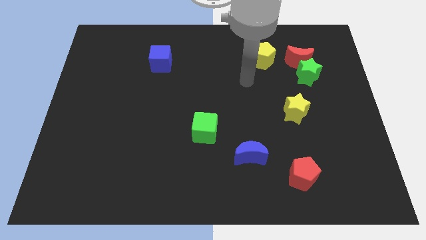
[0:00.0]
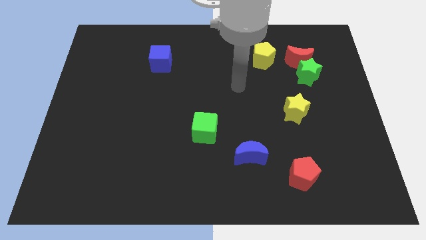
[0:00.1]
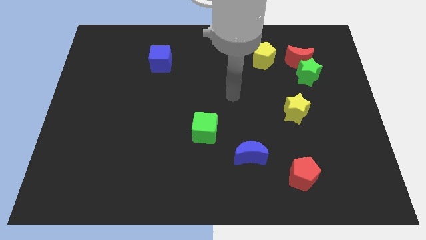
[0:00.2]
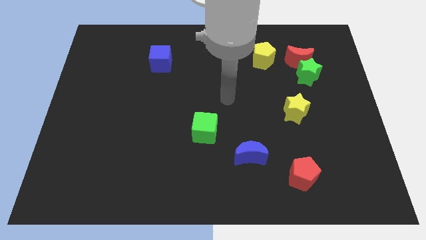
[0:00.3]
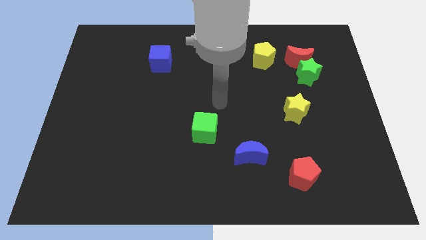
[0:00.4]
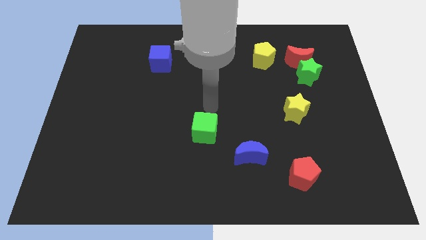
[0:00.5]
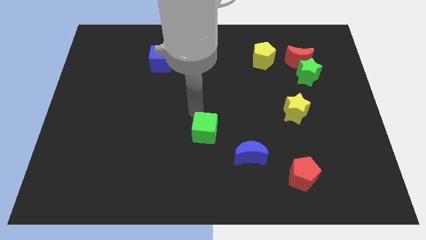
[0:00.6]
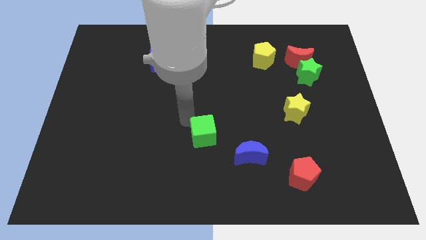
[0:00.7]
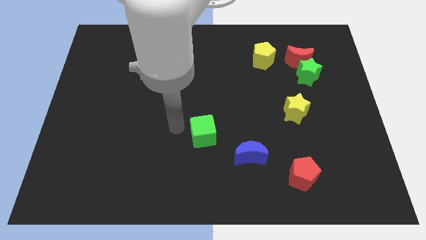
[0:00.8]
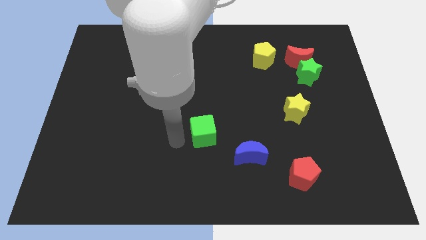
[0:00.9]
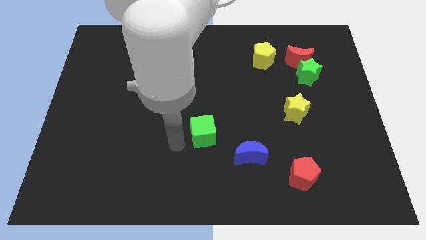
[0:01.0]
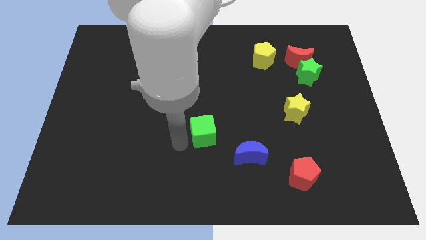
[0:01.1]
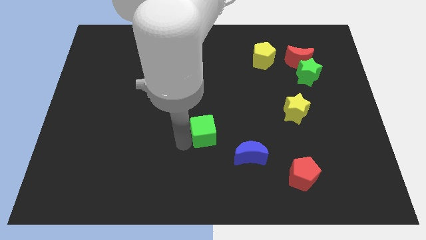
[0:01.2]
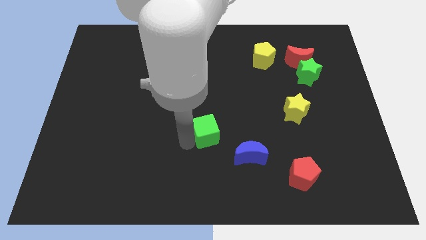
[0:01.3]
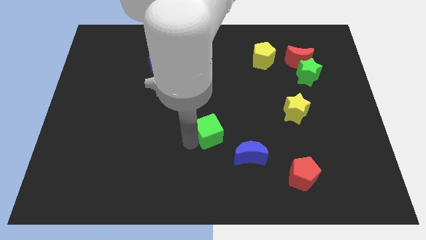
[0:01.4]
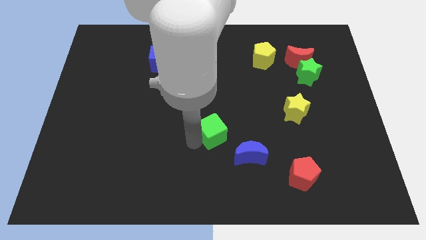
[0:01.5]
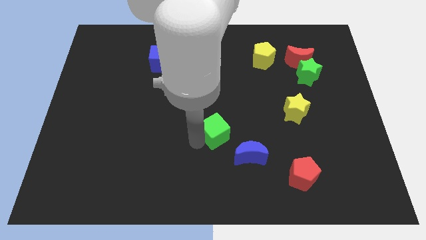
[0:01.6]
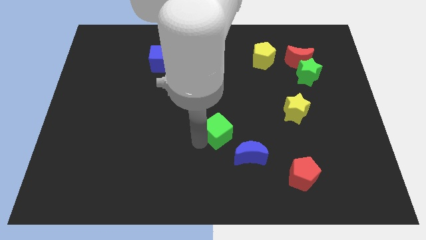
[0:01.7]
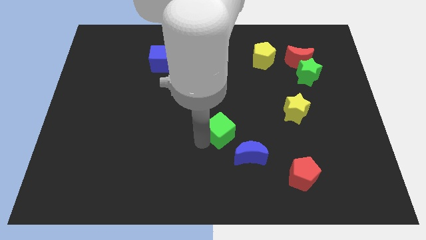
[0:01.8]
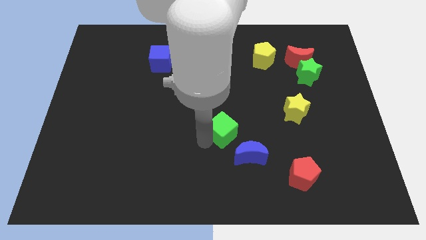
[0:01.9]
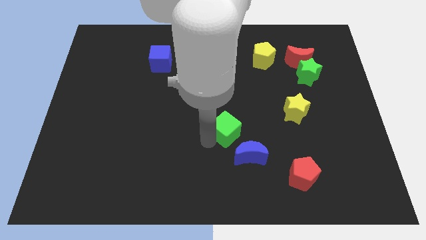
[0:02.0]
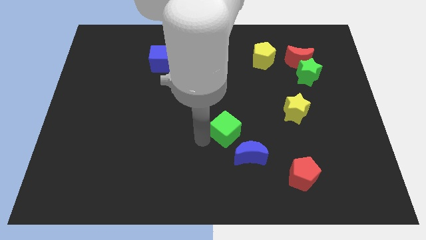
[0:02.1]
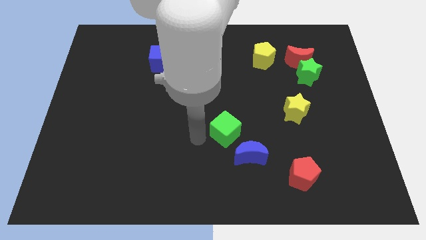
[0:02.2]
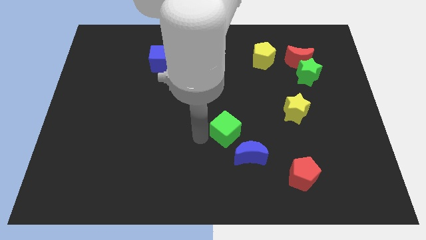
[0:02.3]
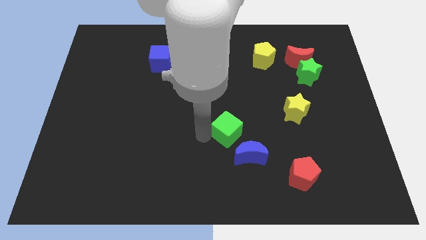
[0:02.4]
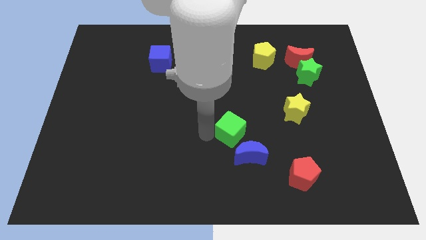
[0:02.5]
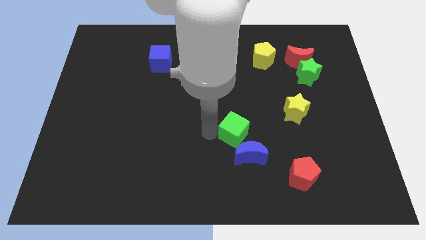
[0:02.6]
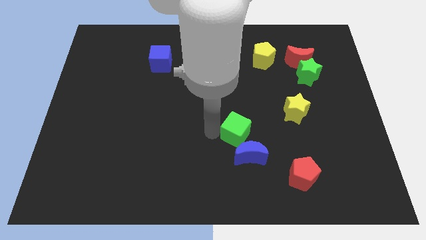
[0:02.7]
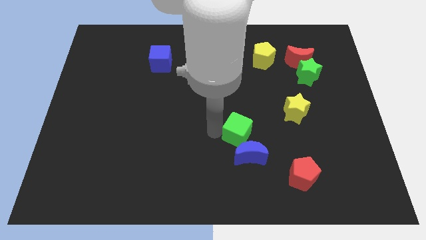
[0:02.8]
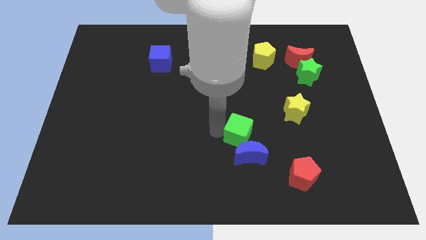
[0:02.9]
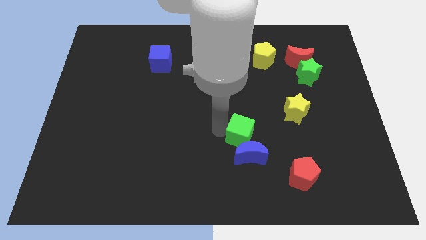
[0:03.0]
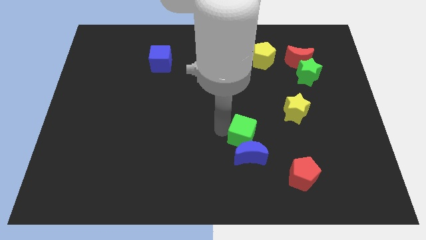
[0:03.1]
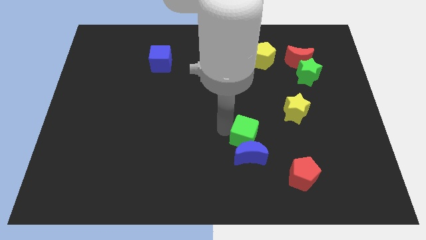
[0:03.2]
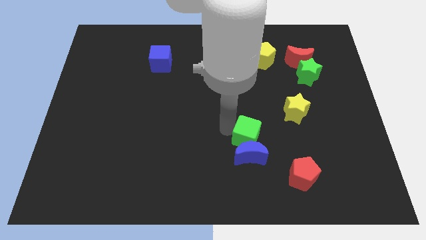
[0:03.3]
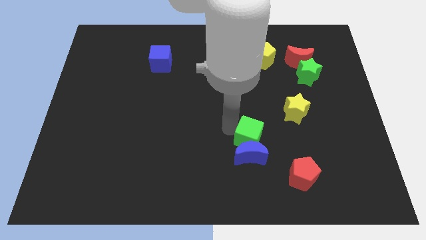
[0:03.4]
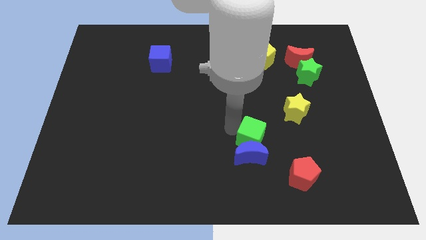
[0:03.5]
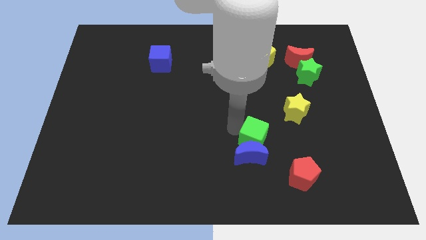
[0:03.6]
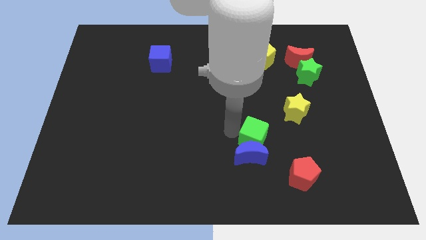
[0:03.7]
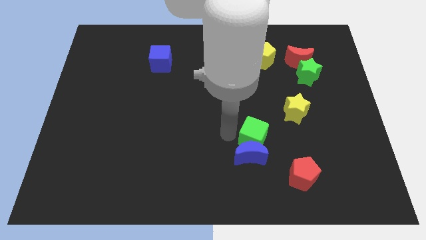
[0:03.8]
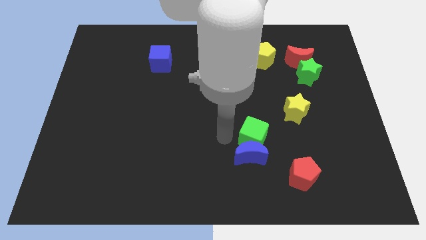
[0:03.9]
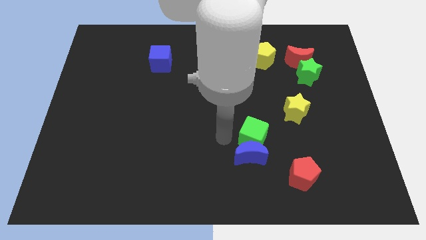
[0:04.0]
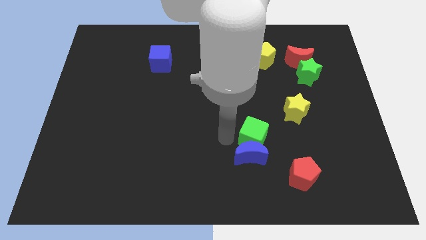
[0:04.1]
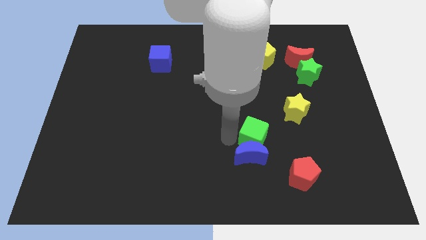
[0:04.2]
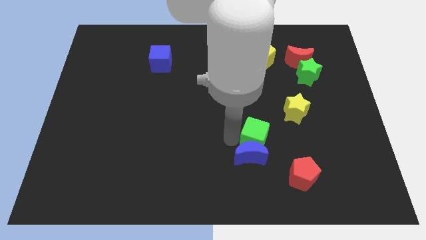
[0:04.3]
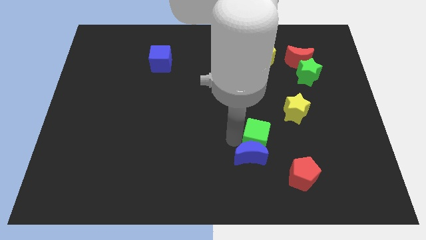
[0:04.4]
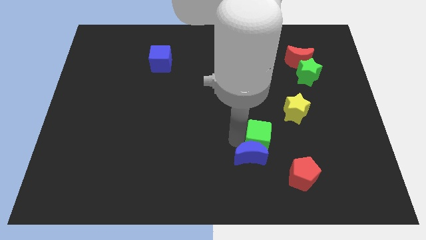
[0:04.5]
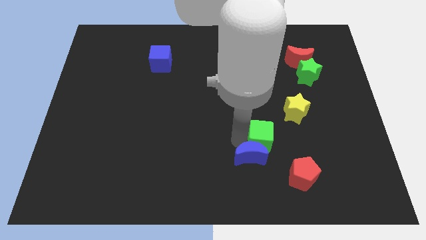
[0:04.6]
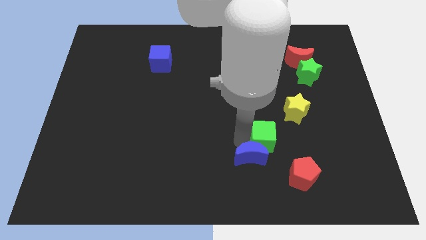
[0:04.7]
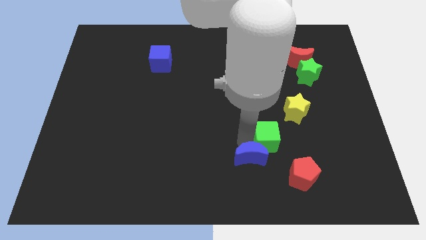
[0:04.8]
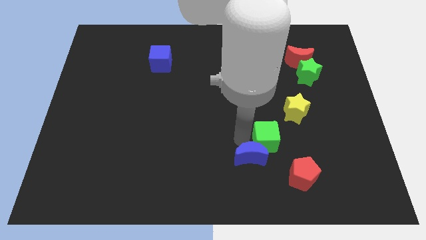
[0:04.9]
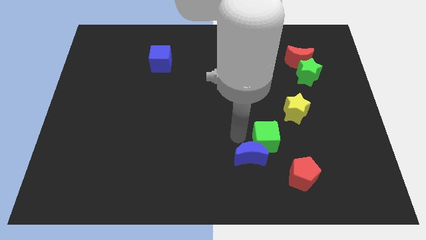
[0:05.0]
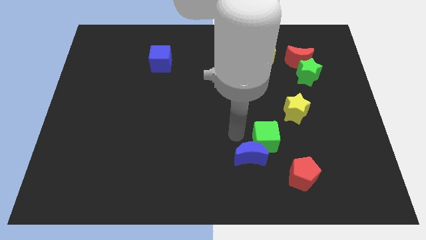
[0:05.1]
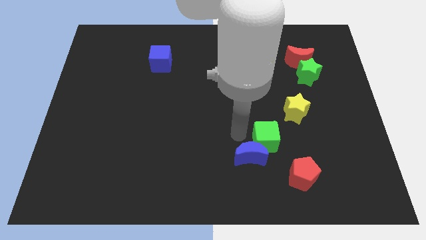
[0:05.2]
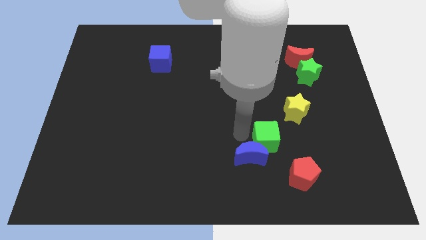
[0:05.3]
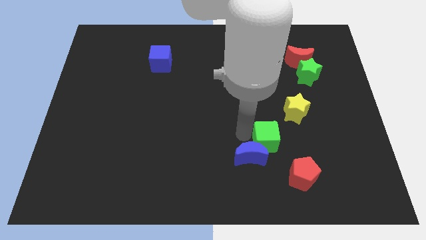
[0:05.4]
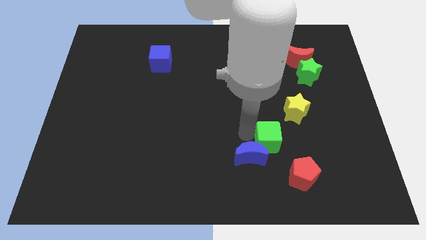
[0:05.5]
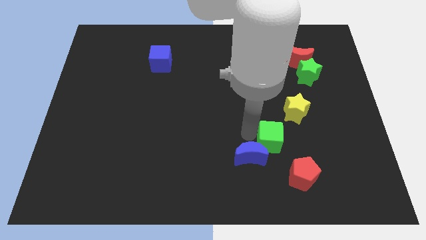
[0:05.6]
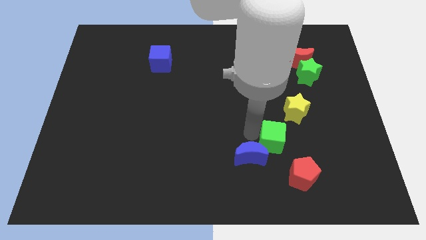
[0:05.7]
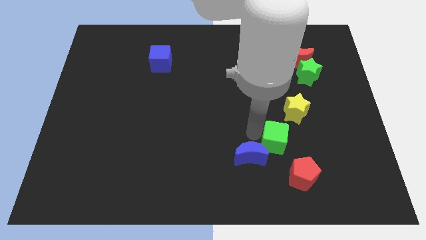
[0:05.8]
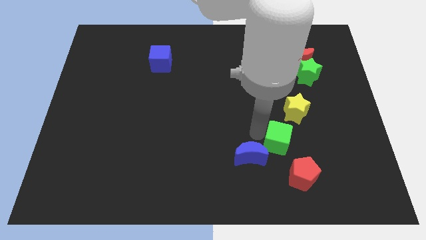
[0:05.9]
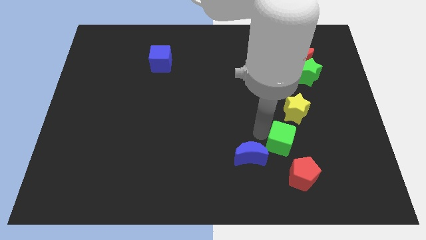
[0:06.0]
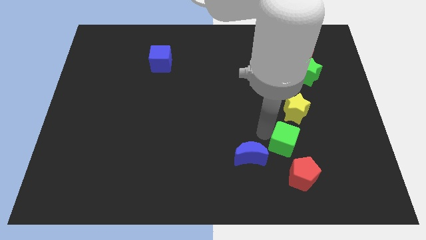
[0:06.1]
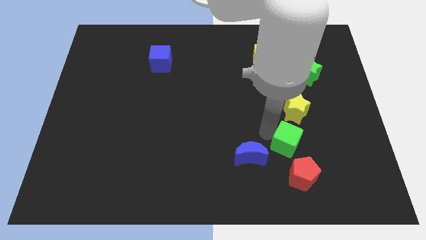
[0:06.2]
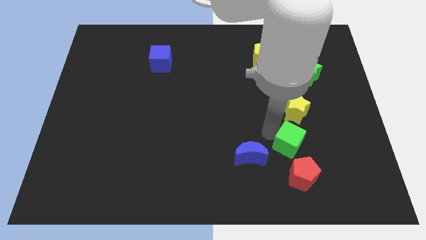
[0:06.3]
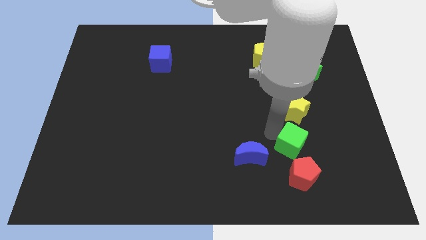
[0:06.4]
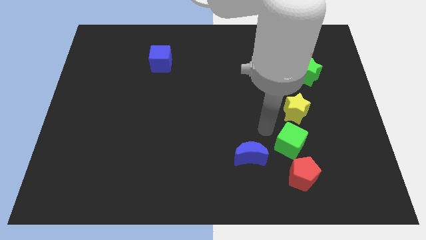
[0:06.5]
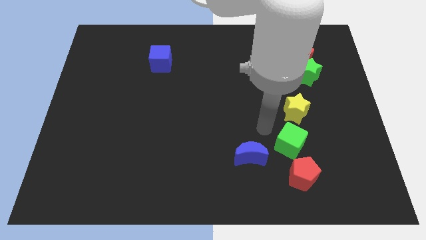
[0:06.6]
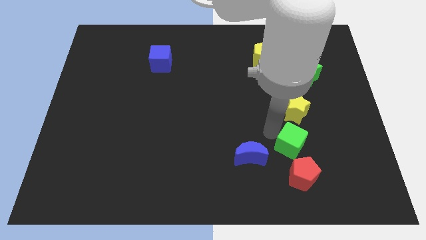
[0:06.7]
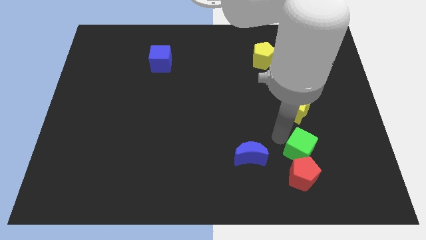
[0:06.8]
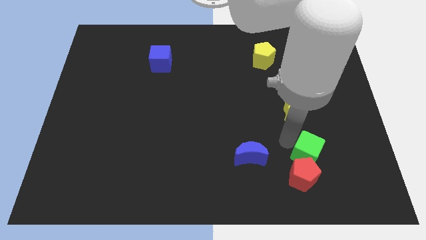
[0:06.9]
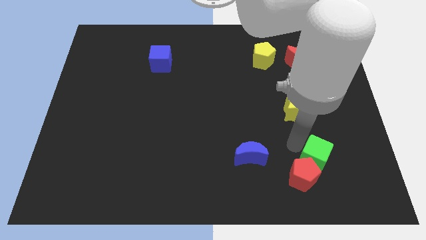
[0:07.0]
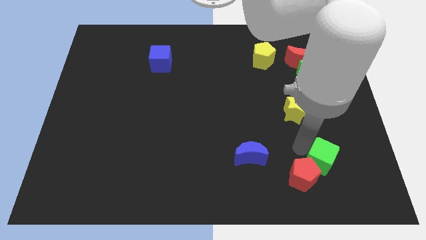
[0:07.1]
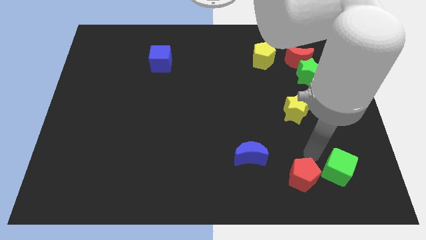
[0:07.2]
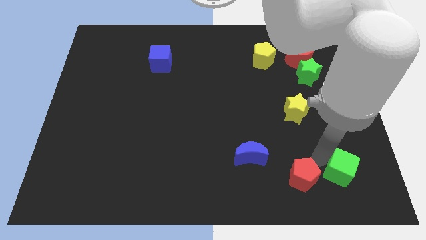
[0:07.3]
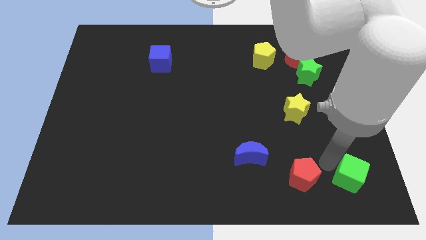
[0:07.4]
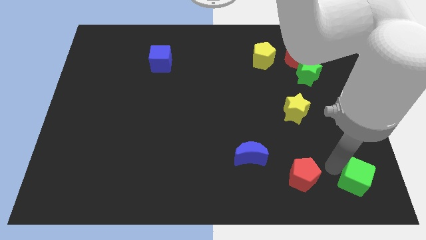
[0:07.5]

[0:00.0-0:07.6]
put the green cube to the lower right corner
